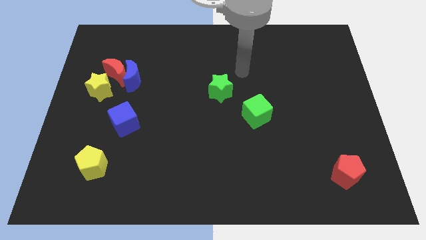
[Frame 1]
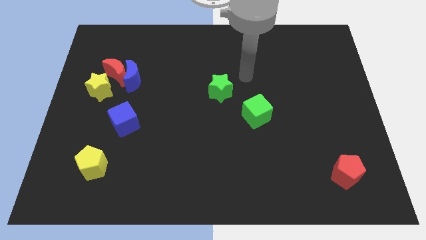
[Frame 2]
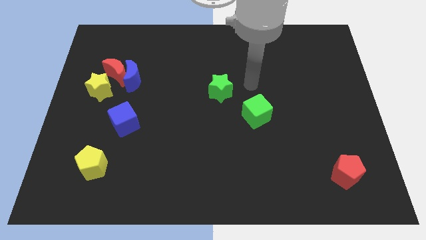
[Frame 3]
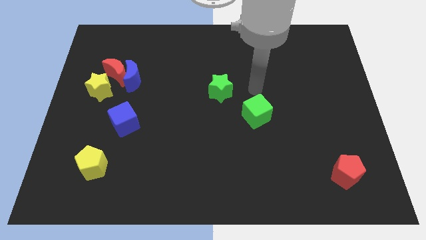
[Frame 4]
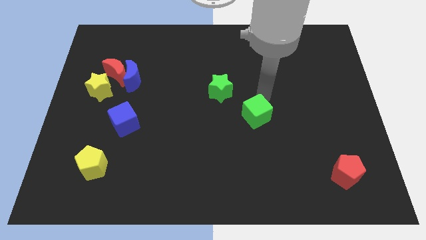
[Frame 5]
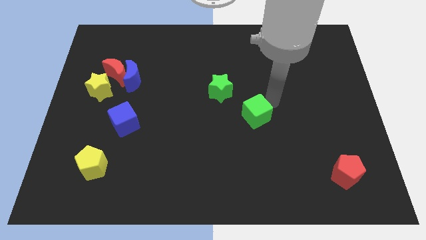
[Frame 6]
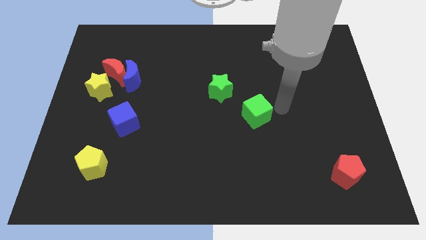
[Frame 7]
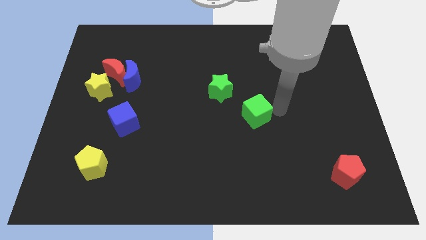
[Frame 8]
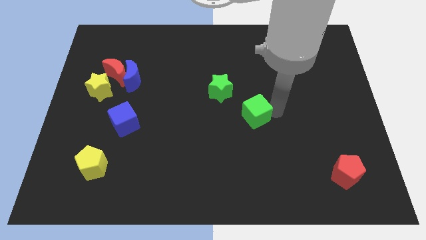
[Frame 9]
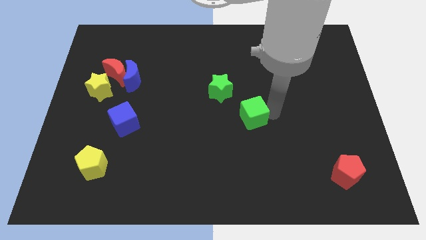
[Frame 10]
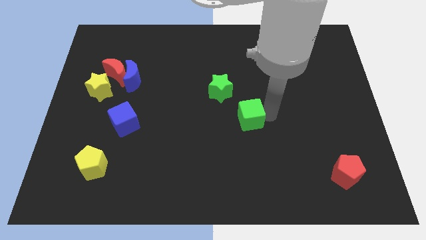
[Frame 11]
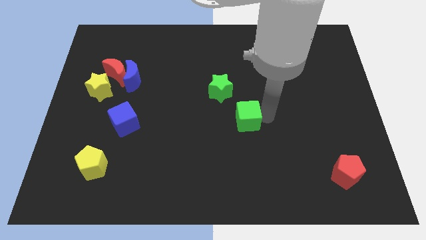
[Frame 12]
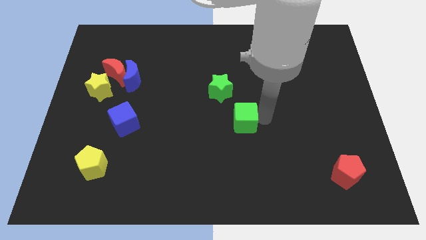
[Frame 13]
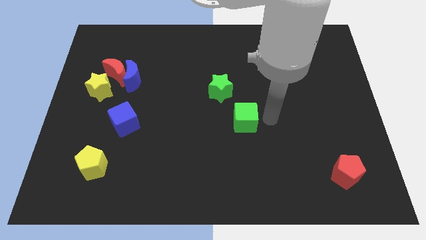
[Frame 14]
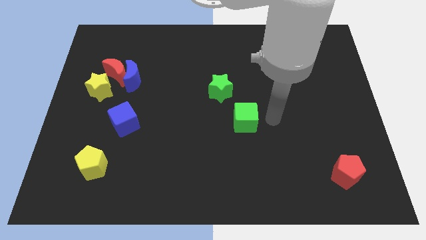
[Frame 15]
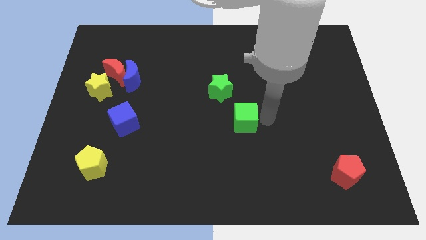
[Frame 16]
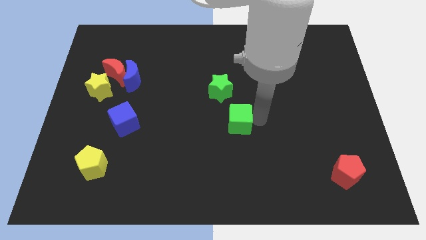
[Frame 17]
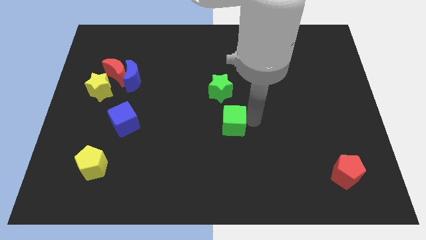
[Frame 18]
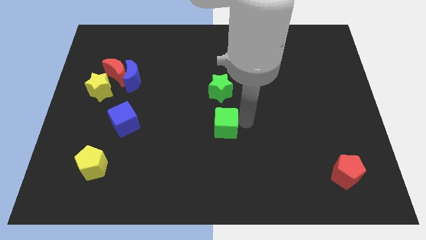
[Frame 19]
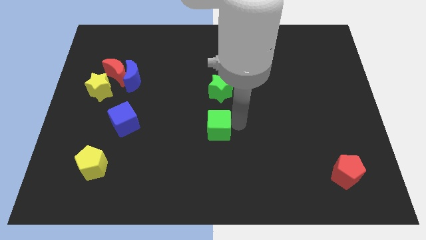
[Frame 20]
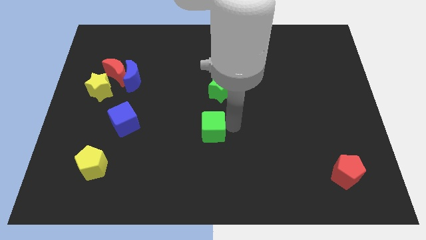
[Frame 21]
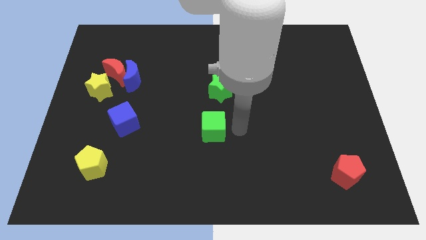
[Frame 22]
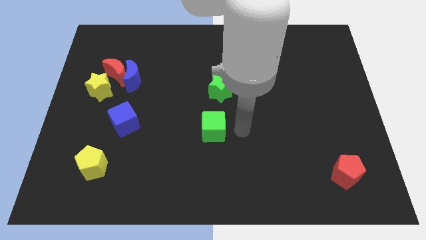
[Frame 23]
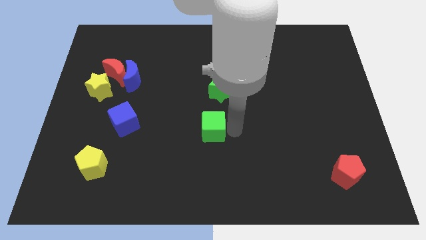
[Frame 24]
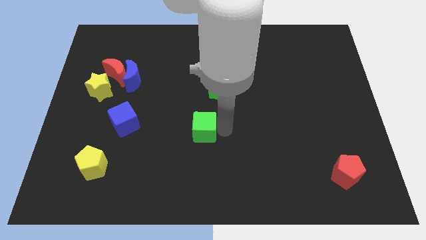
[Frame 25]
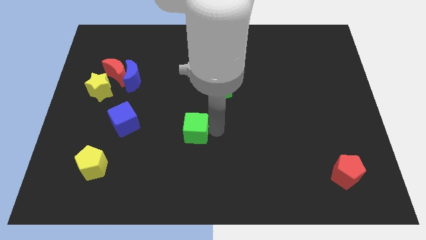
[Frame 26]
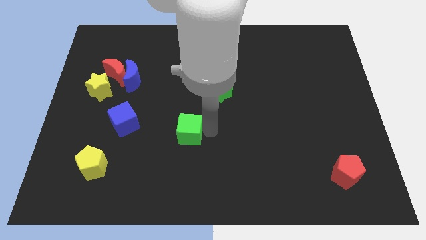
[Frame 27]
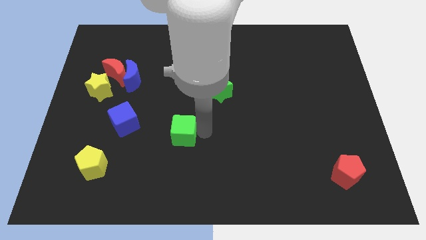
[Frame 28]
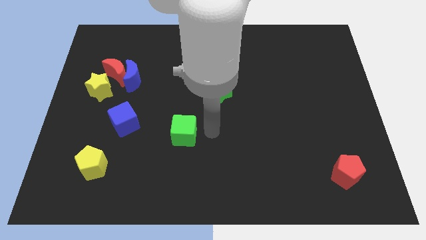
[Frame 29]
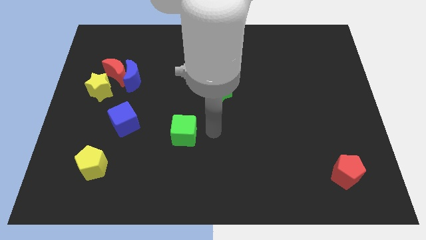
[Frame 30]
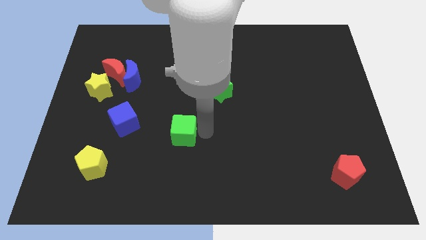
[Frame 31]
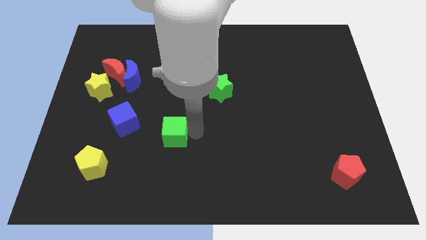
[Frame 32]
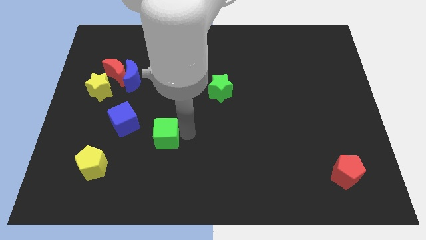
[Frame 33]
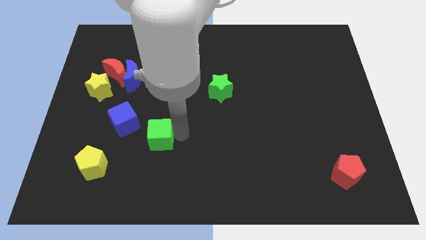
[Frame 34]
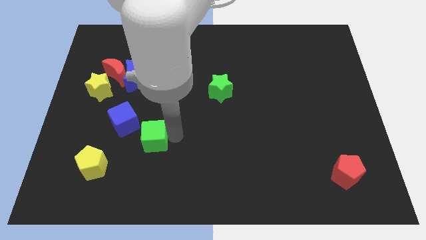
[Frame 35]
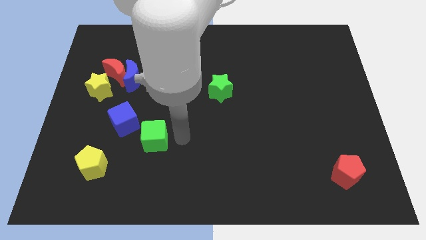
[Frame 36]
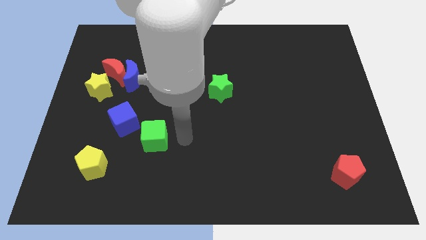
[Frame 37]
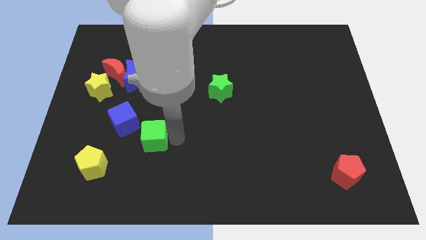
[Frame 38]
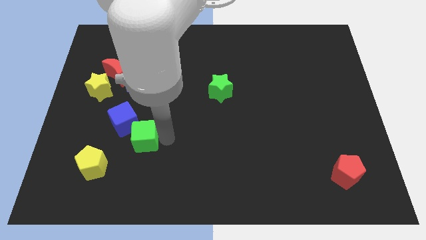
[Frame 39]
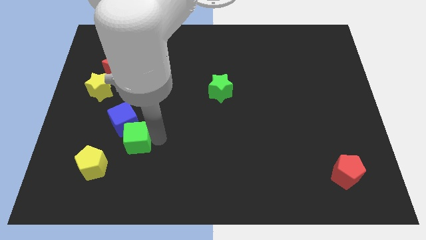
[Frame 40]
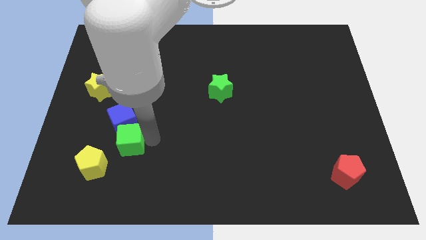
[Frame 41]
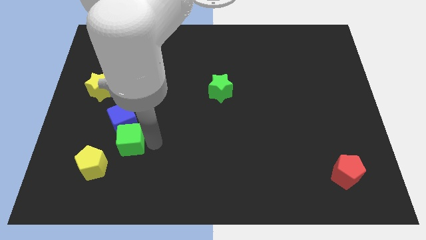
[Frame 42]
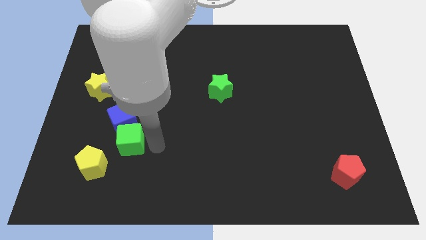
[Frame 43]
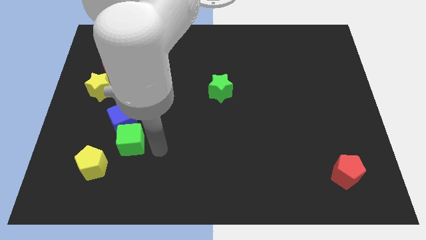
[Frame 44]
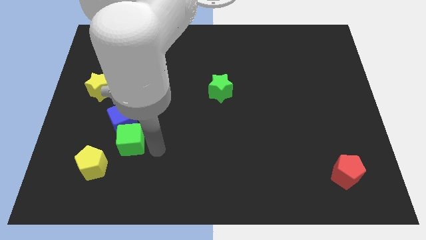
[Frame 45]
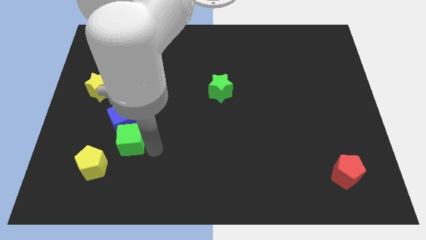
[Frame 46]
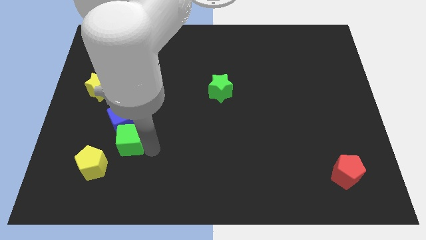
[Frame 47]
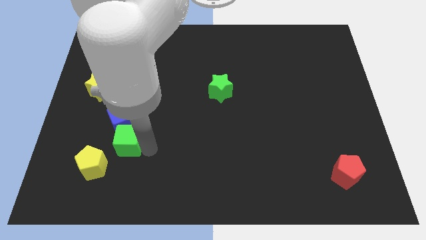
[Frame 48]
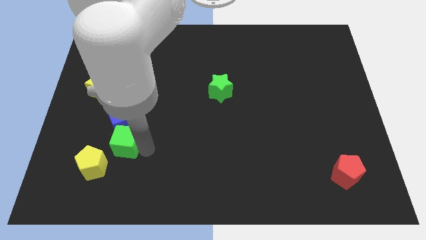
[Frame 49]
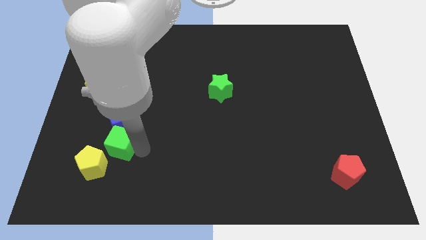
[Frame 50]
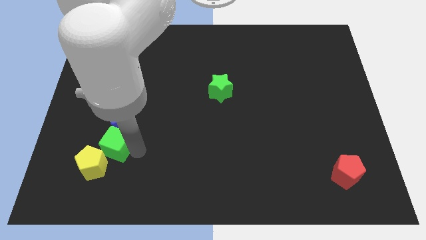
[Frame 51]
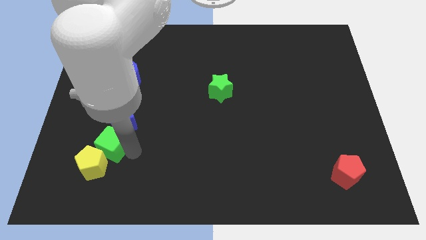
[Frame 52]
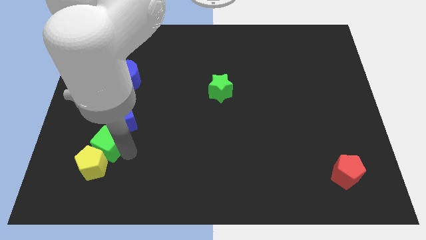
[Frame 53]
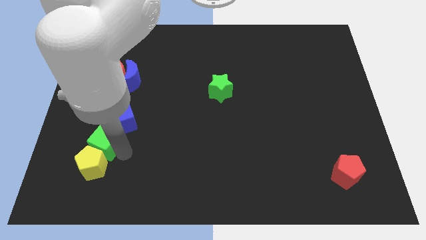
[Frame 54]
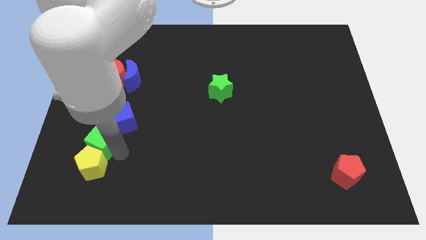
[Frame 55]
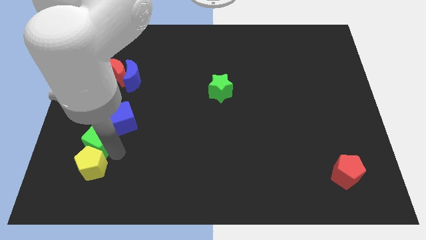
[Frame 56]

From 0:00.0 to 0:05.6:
push the green cube below the yellow star

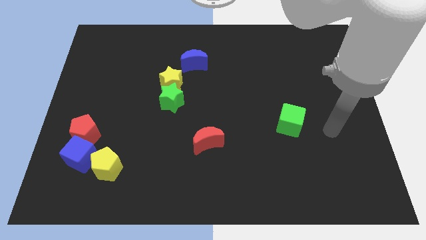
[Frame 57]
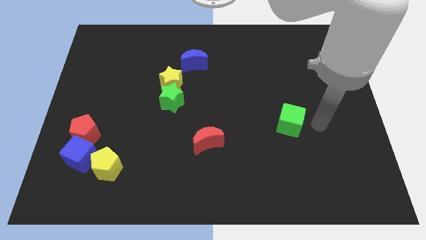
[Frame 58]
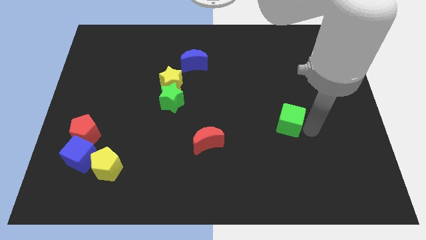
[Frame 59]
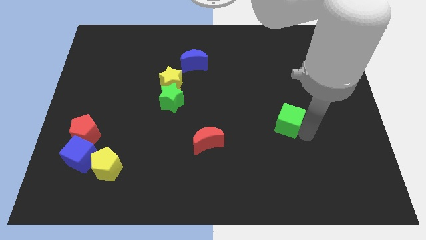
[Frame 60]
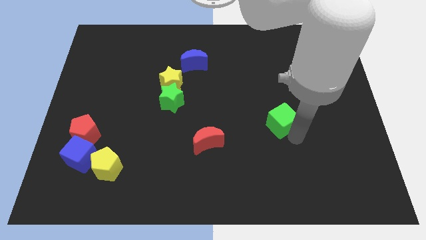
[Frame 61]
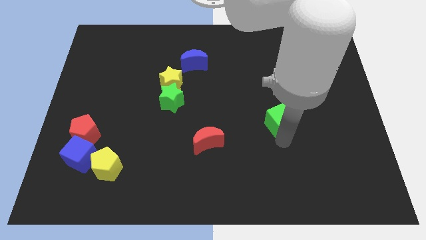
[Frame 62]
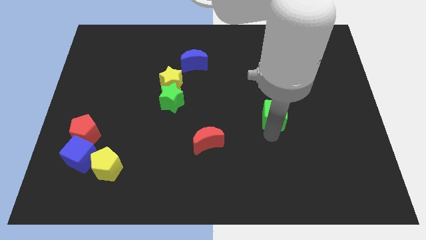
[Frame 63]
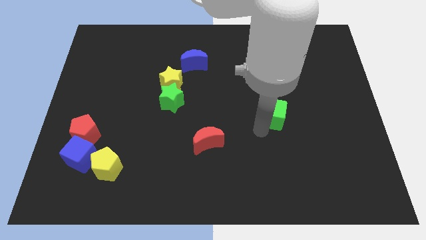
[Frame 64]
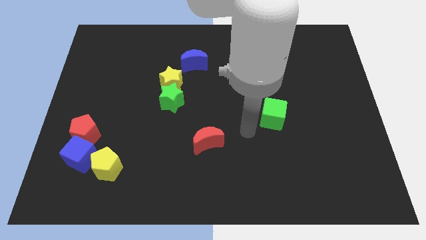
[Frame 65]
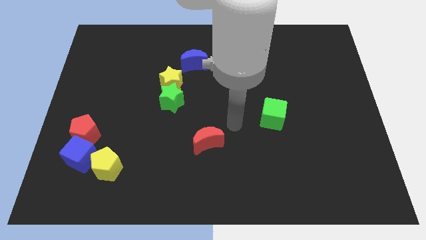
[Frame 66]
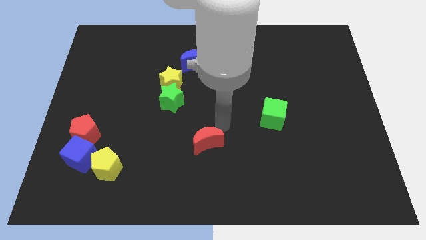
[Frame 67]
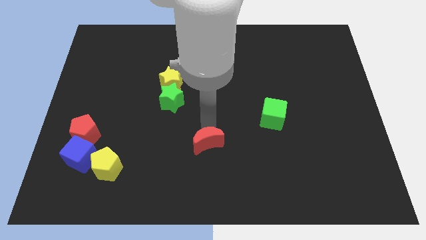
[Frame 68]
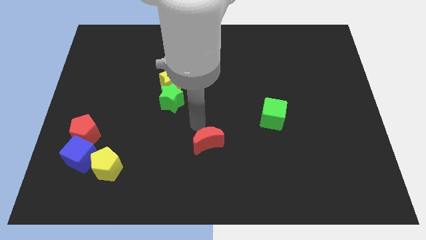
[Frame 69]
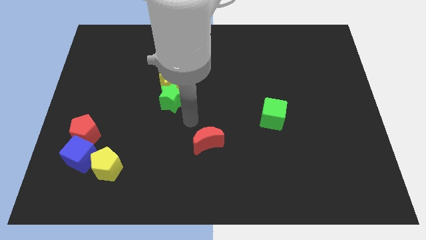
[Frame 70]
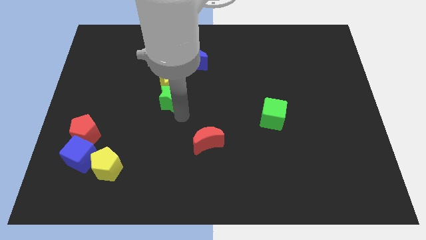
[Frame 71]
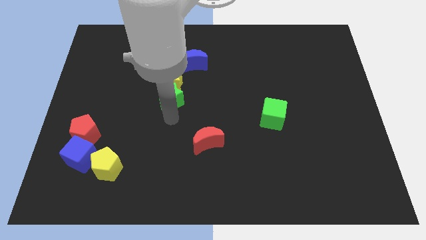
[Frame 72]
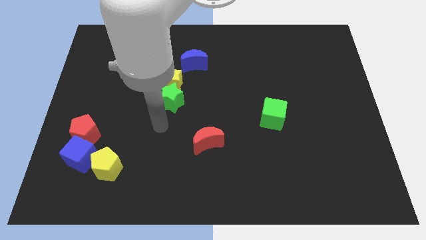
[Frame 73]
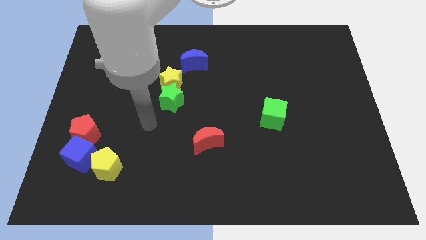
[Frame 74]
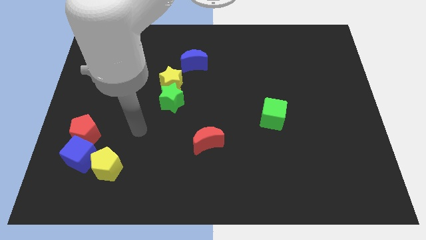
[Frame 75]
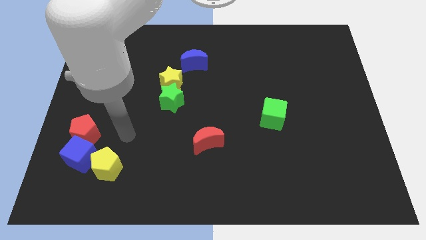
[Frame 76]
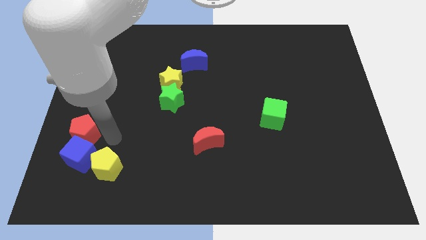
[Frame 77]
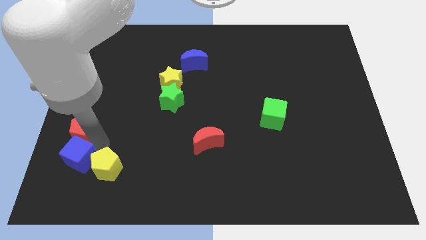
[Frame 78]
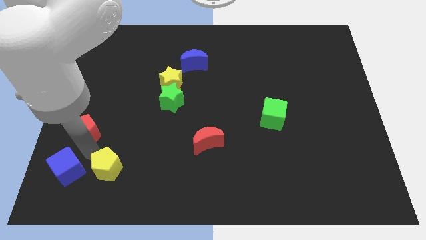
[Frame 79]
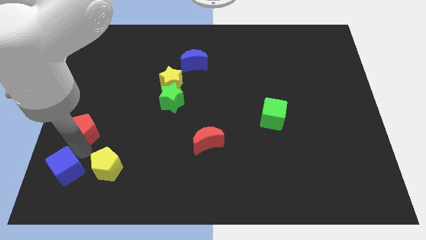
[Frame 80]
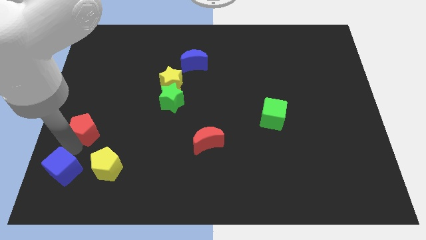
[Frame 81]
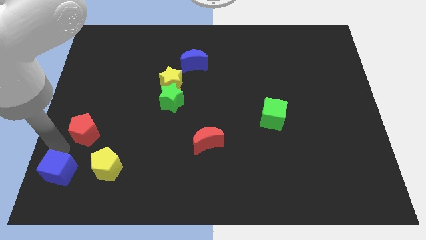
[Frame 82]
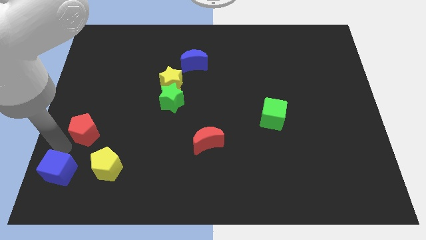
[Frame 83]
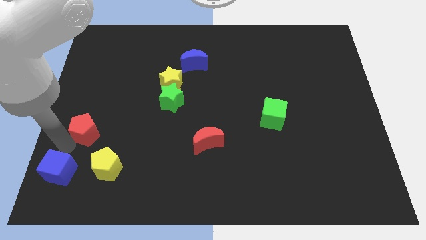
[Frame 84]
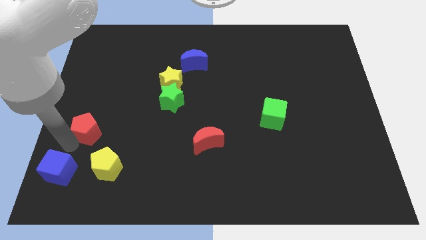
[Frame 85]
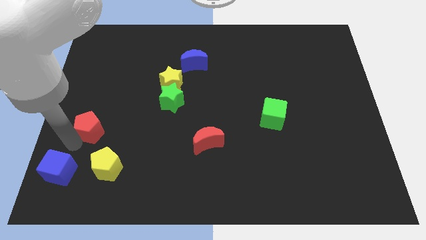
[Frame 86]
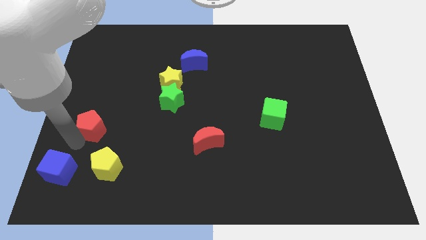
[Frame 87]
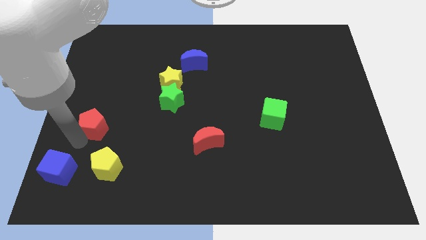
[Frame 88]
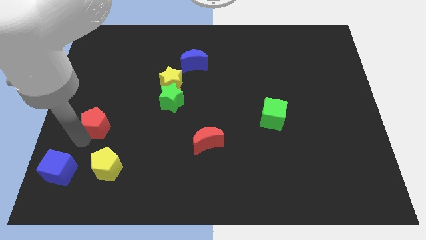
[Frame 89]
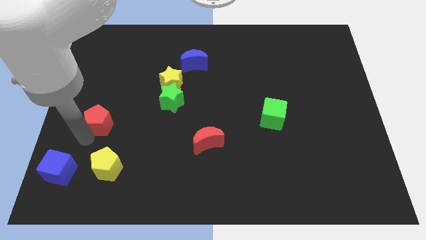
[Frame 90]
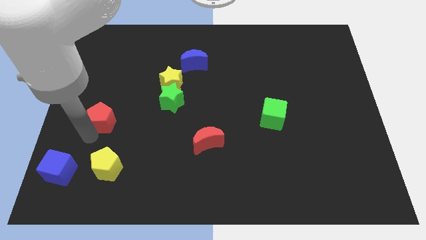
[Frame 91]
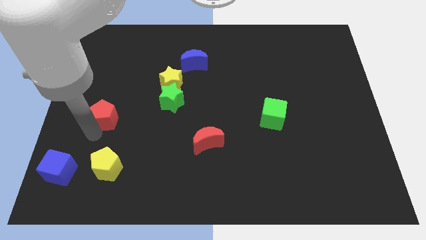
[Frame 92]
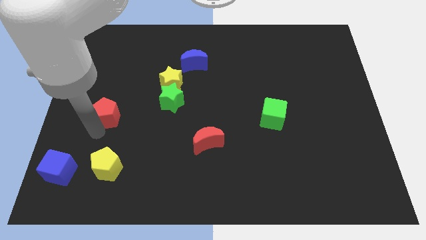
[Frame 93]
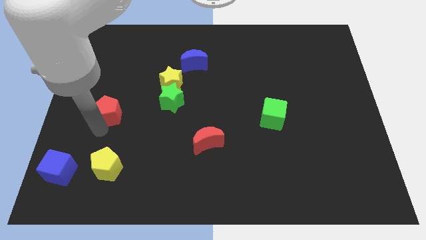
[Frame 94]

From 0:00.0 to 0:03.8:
slide the red pentagon to the left side of the green star
